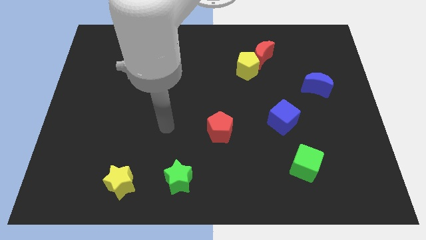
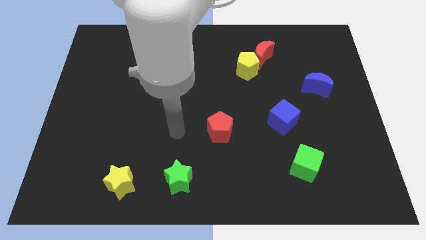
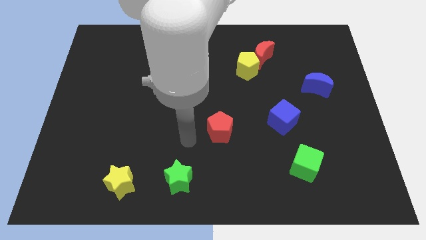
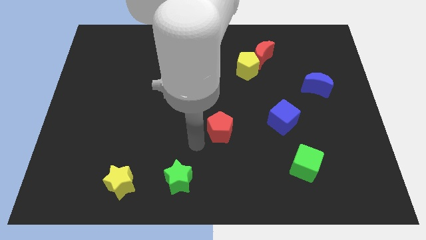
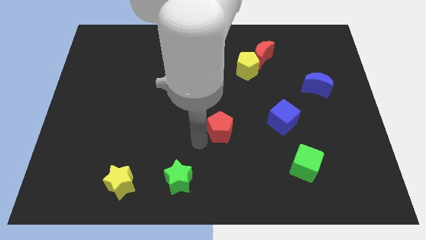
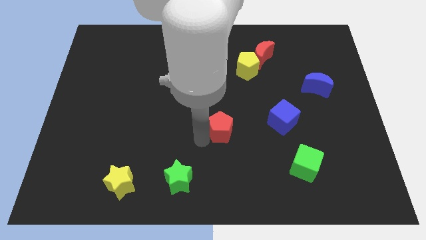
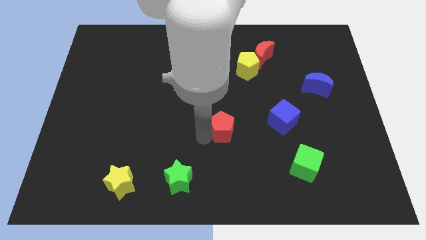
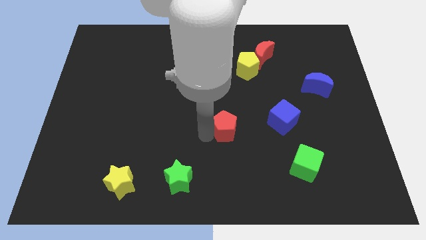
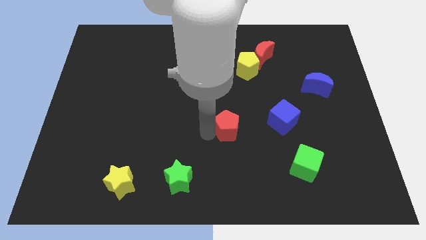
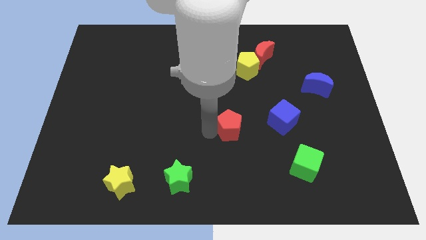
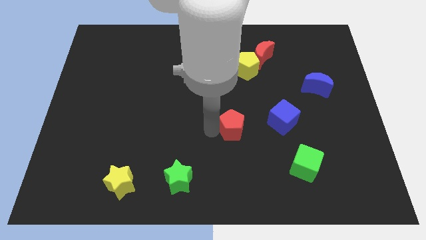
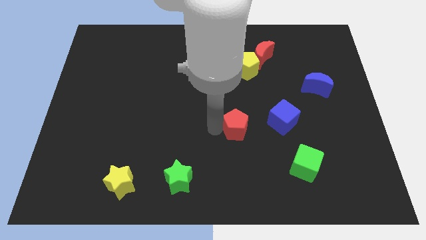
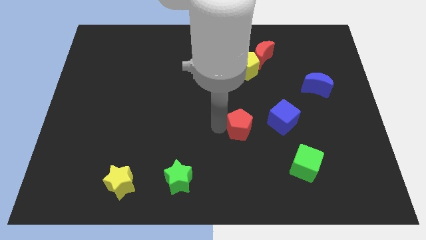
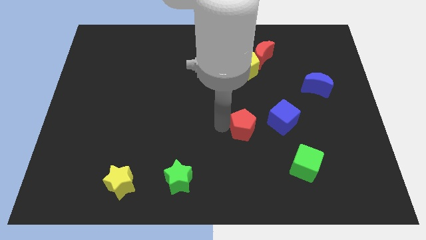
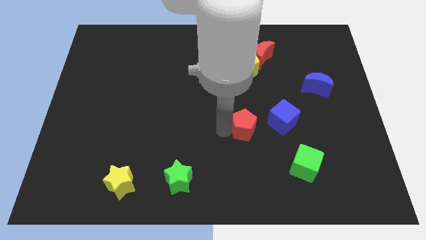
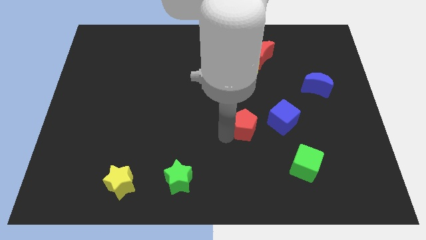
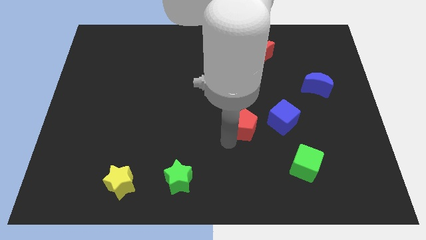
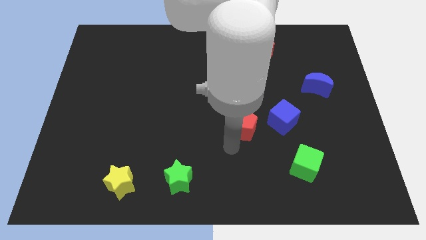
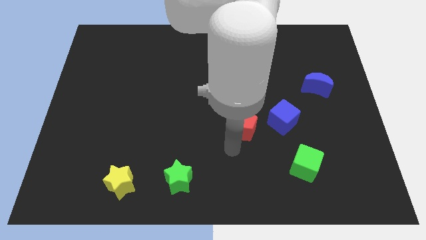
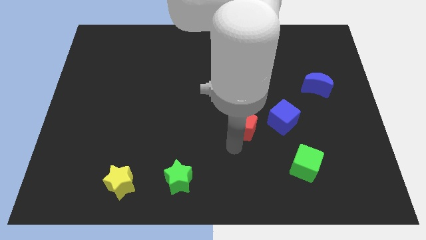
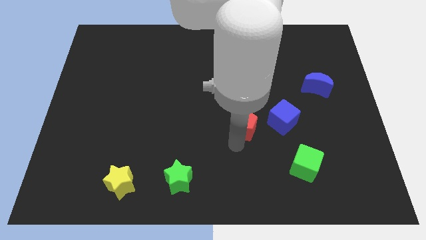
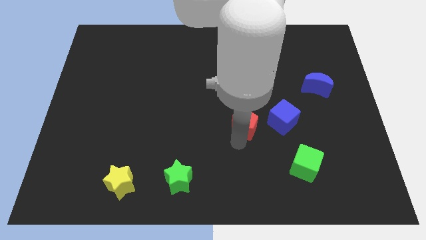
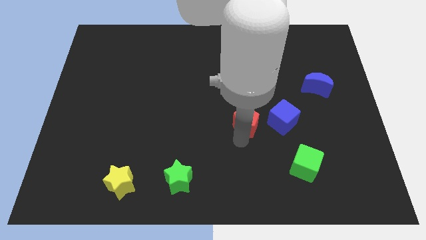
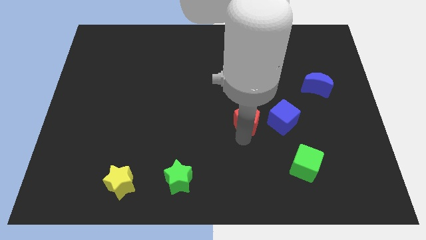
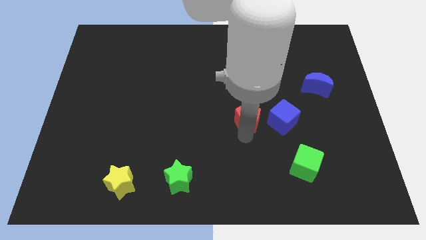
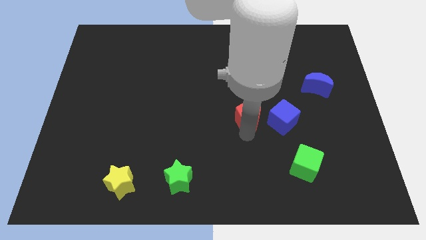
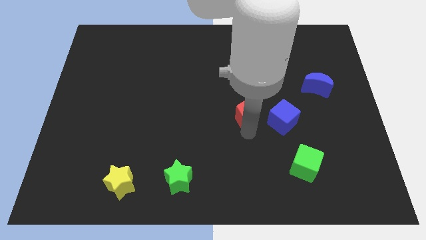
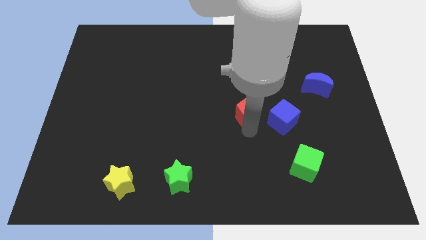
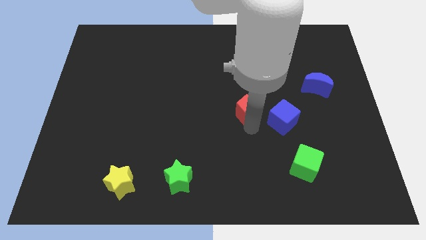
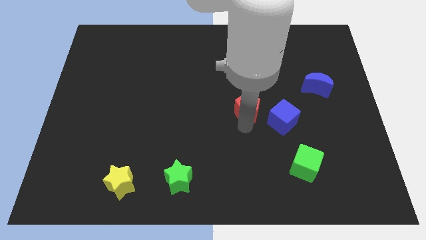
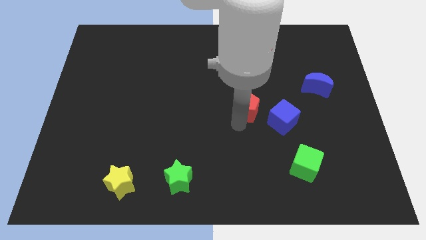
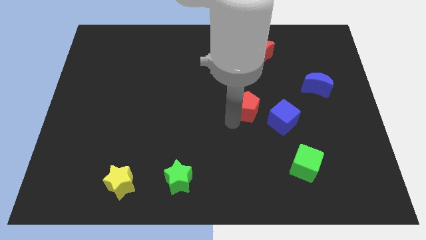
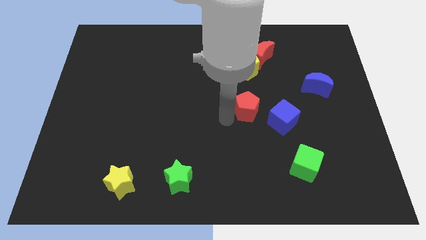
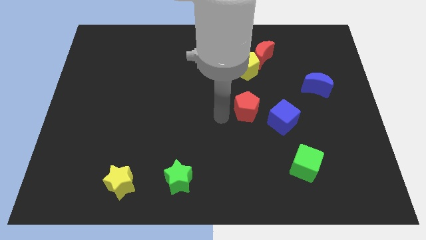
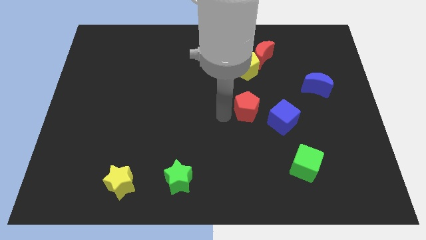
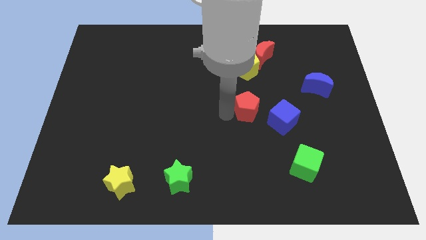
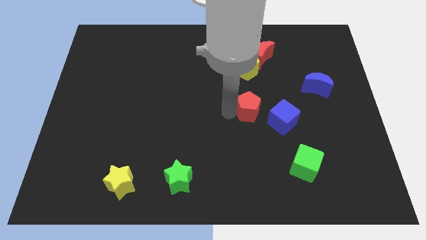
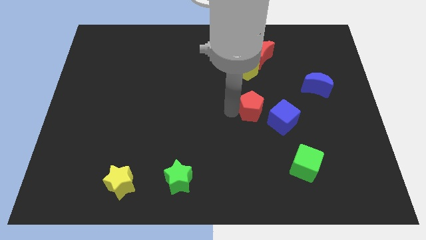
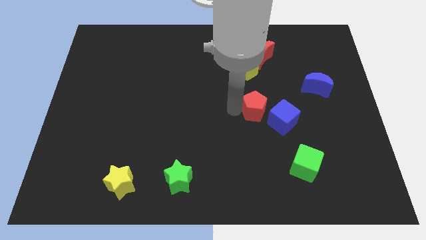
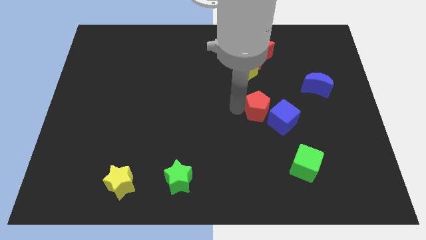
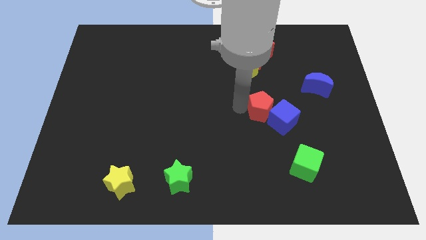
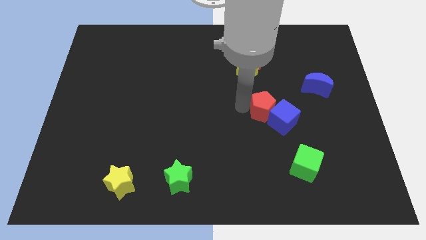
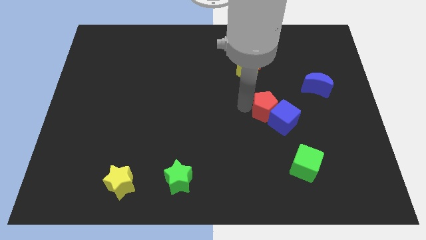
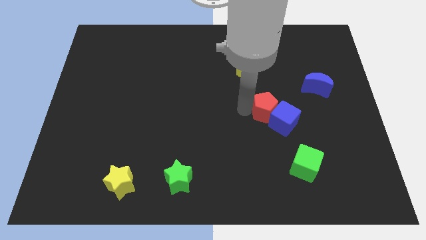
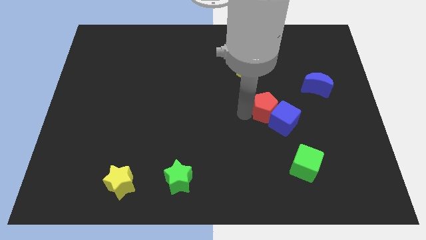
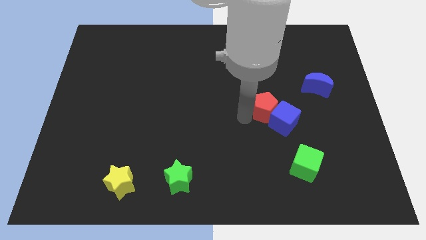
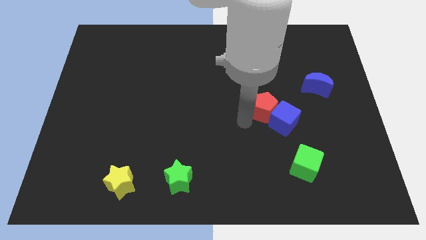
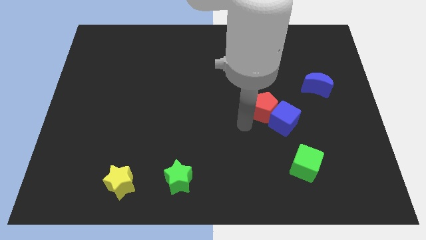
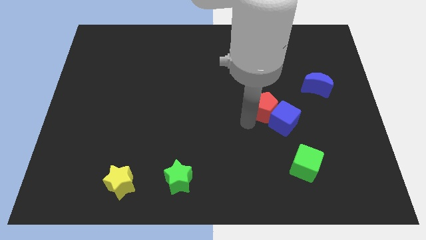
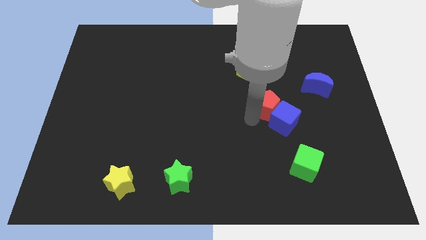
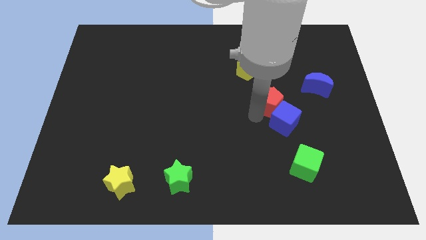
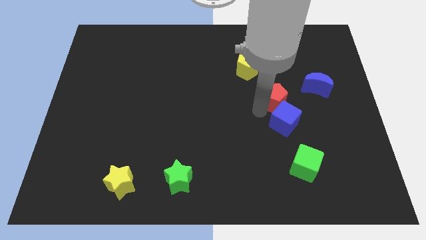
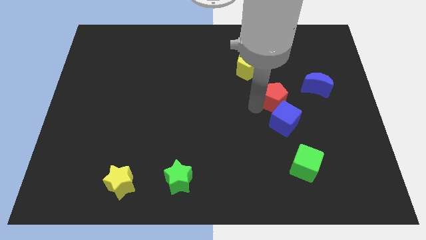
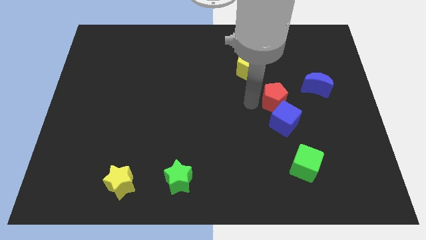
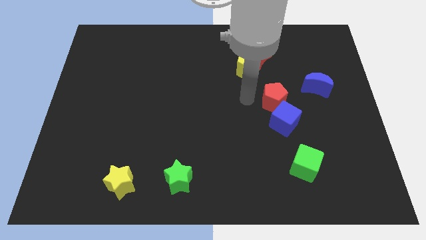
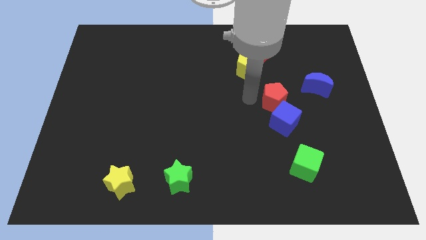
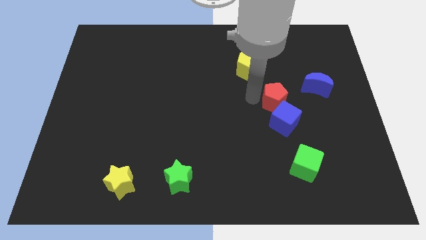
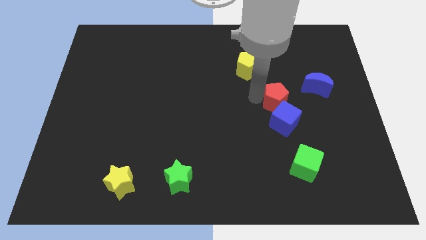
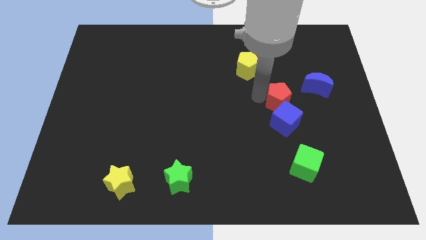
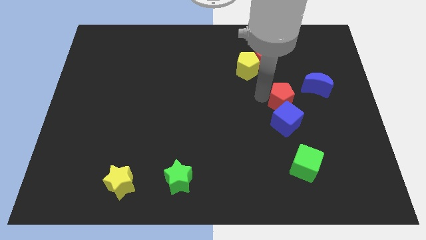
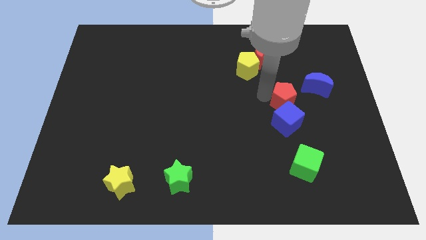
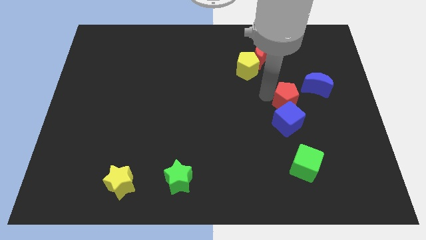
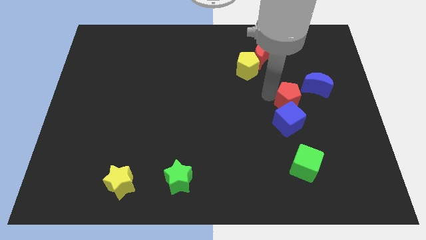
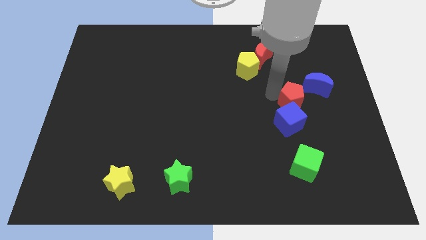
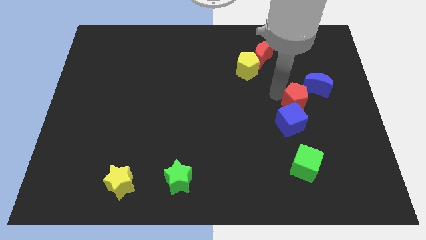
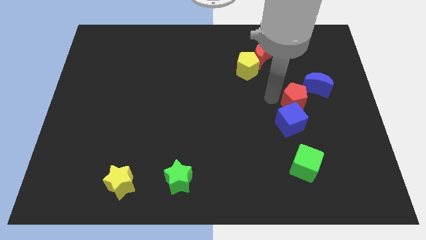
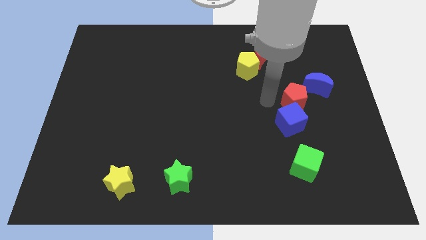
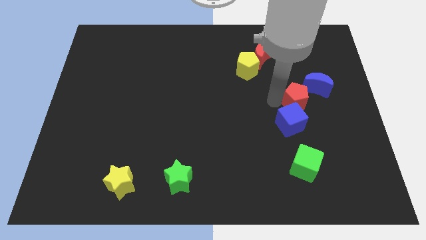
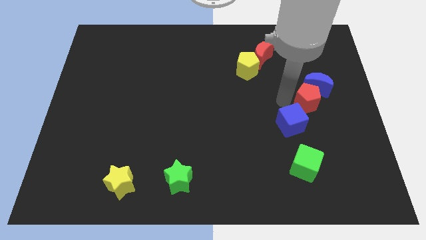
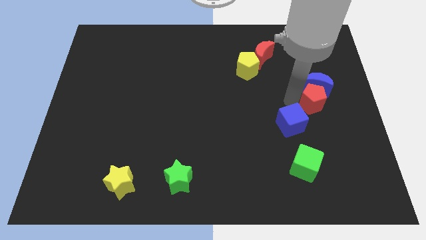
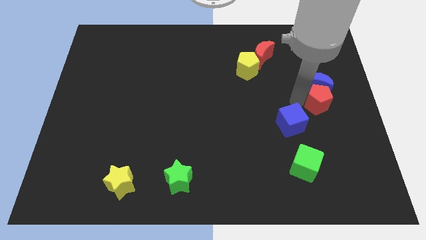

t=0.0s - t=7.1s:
push the red pentagon to the center right
